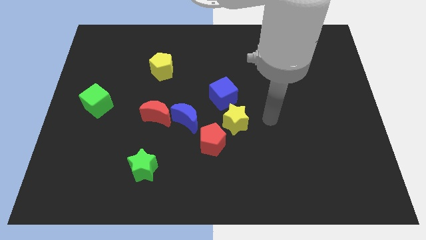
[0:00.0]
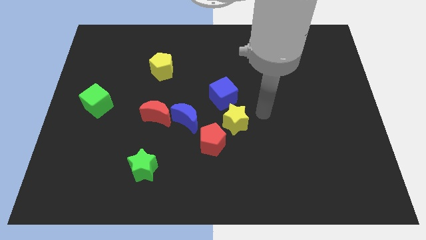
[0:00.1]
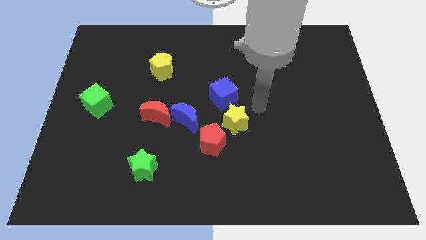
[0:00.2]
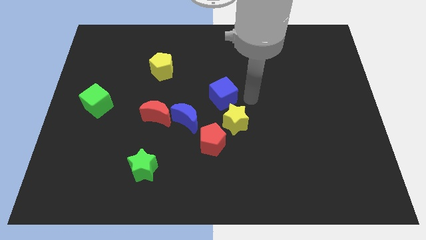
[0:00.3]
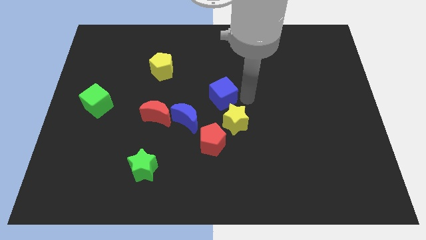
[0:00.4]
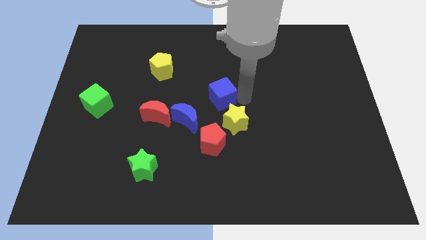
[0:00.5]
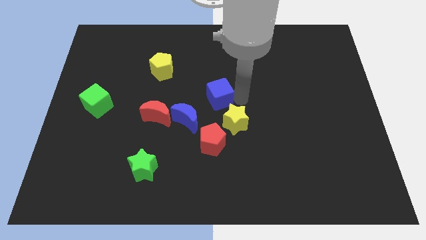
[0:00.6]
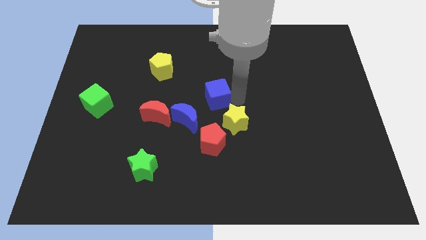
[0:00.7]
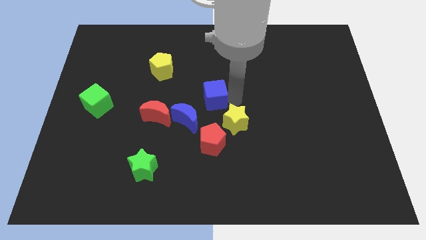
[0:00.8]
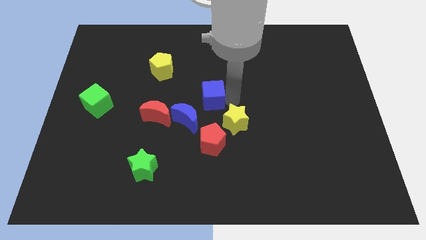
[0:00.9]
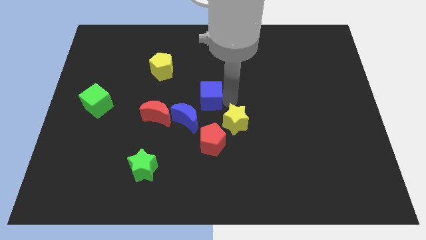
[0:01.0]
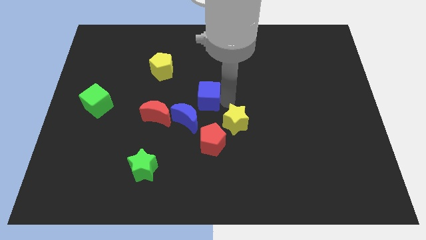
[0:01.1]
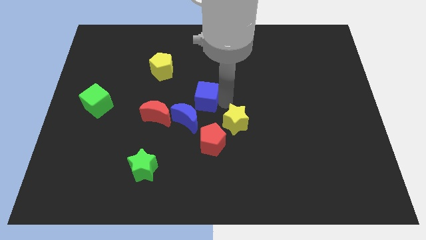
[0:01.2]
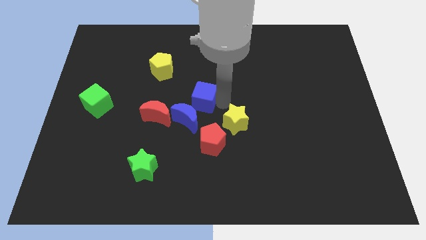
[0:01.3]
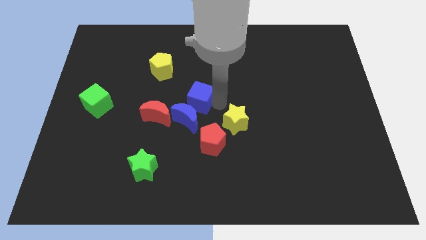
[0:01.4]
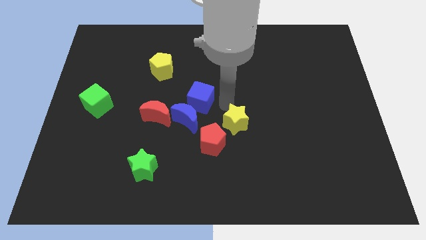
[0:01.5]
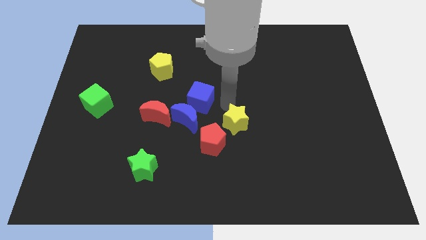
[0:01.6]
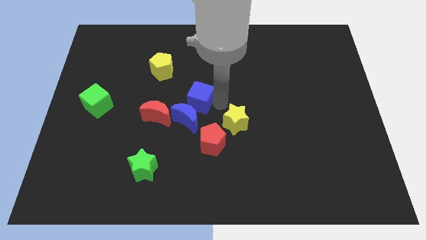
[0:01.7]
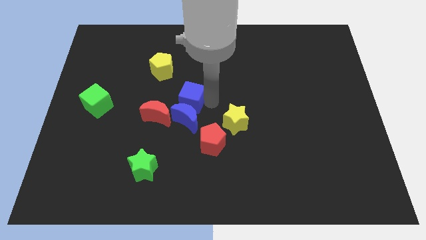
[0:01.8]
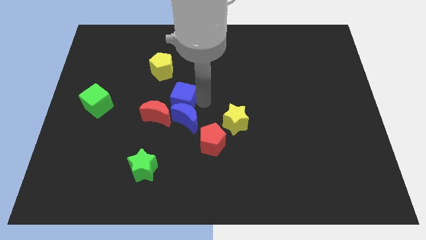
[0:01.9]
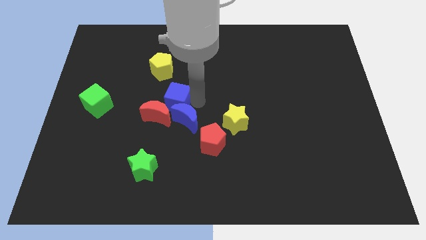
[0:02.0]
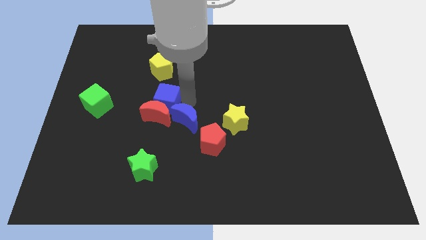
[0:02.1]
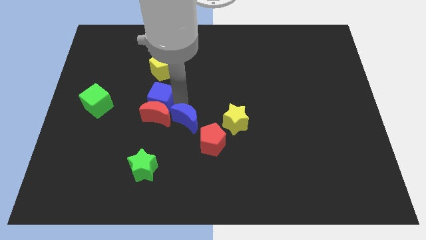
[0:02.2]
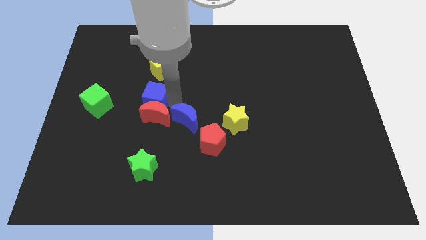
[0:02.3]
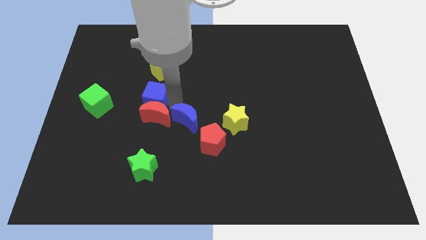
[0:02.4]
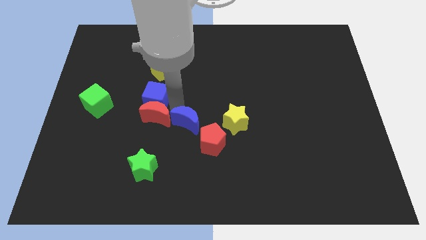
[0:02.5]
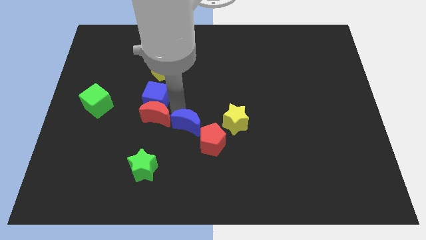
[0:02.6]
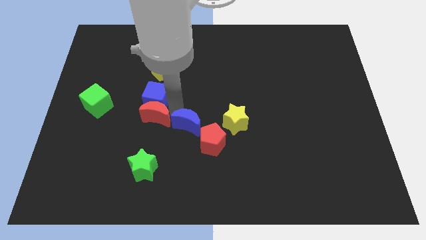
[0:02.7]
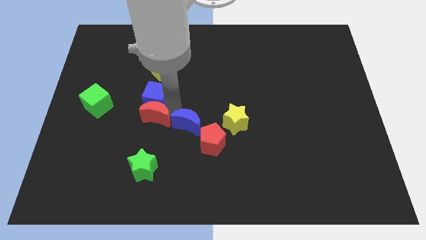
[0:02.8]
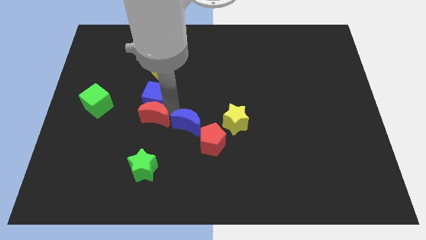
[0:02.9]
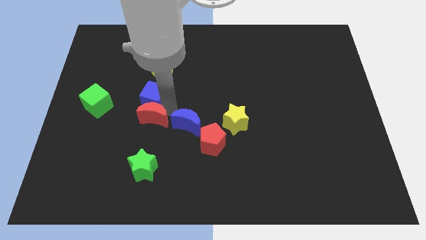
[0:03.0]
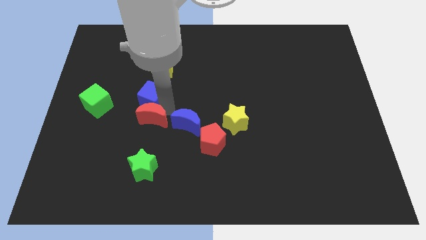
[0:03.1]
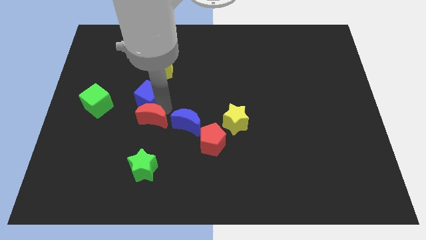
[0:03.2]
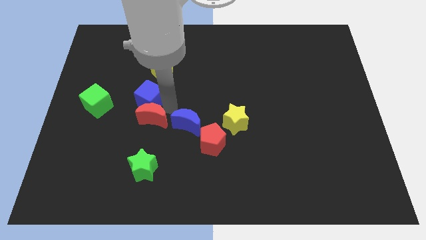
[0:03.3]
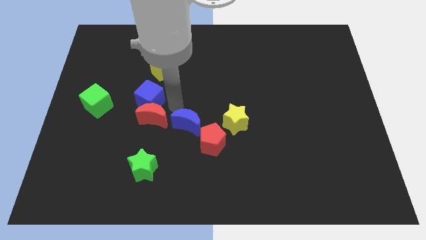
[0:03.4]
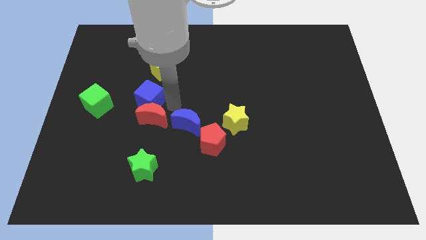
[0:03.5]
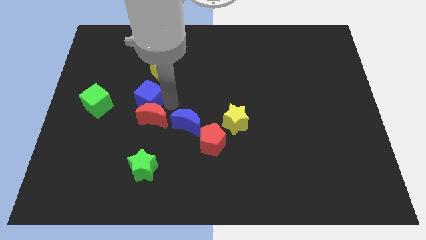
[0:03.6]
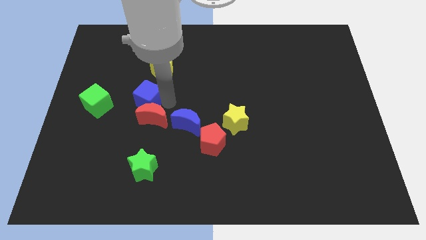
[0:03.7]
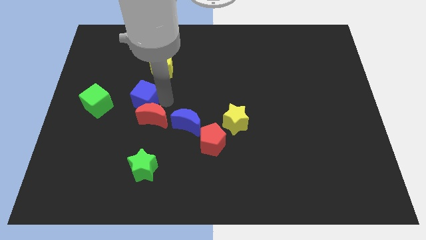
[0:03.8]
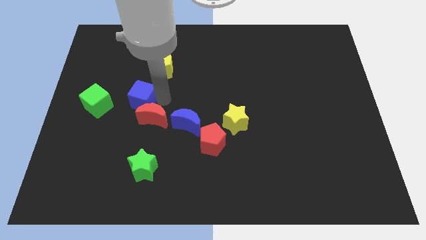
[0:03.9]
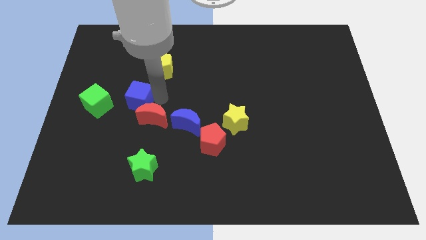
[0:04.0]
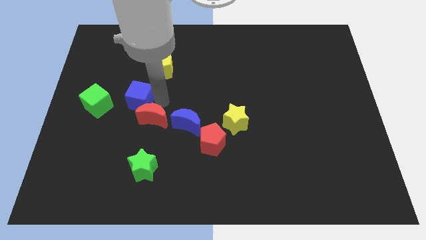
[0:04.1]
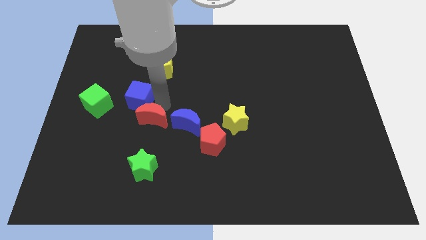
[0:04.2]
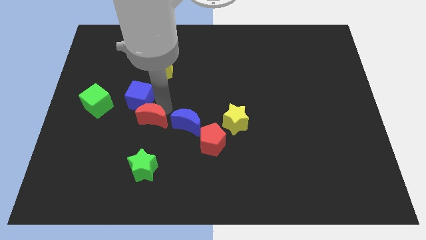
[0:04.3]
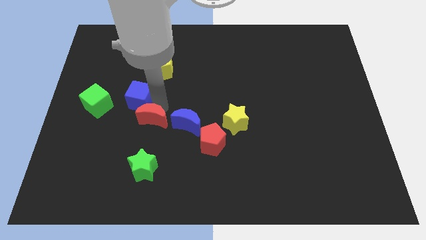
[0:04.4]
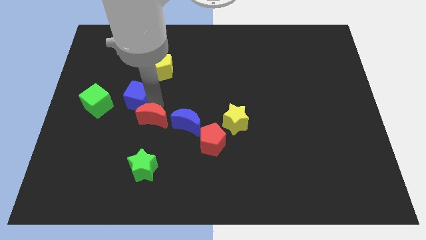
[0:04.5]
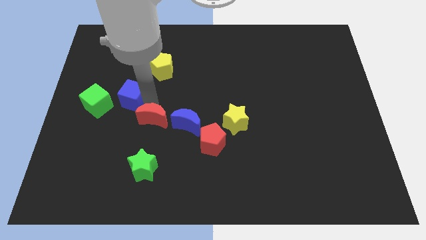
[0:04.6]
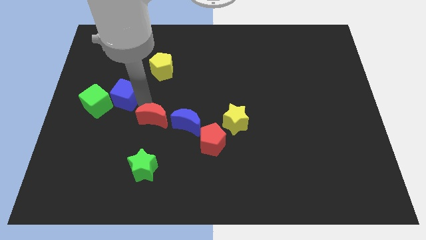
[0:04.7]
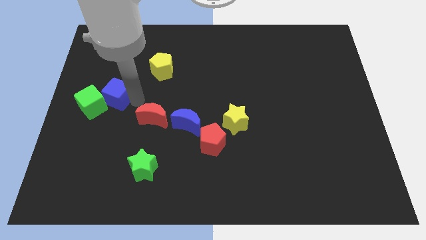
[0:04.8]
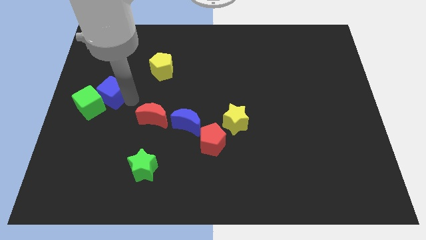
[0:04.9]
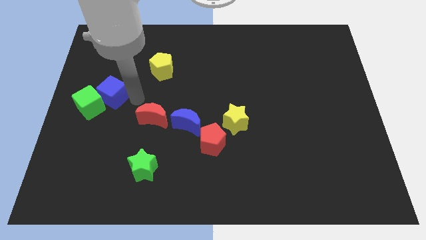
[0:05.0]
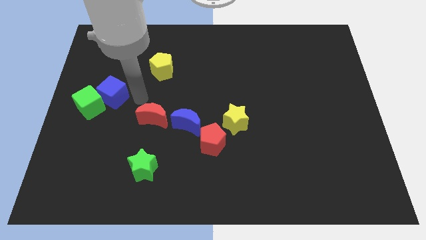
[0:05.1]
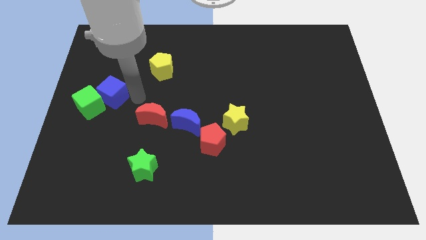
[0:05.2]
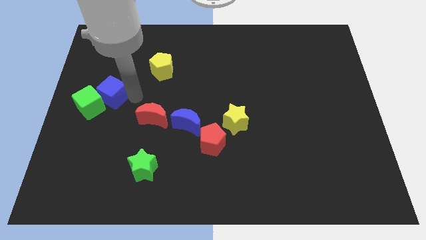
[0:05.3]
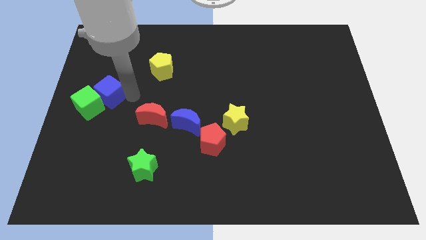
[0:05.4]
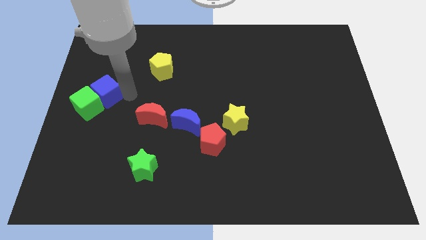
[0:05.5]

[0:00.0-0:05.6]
move the blue cube to the center left

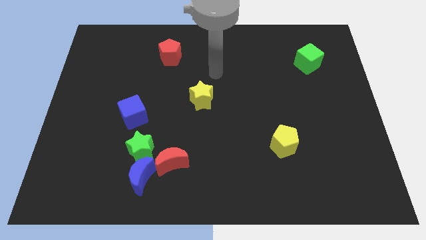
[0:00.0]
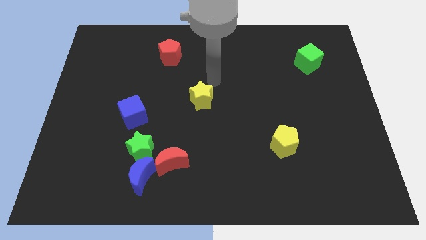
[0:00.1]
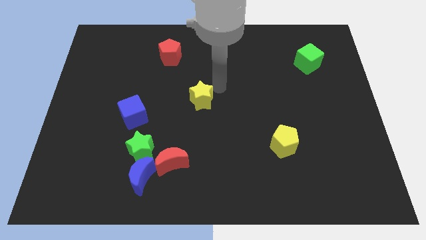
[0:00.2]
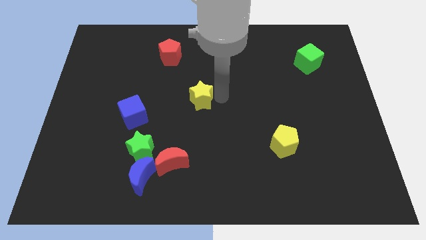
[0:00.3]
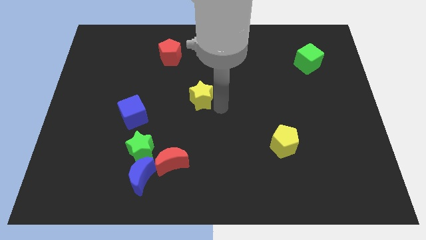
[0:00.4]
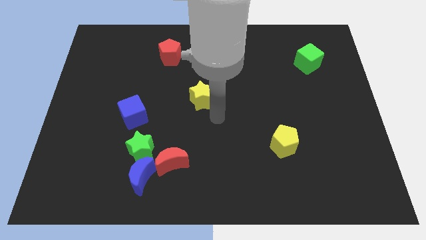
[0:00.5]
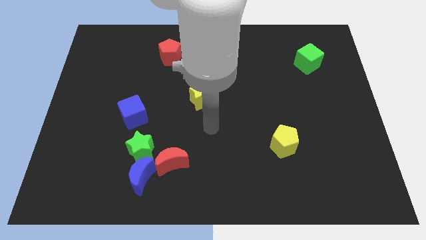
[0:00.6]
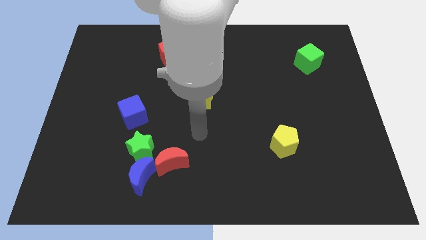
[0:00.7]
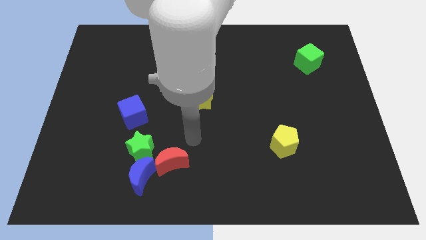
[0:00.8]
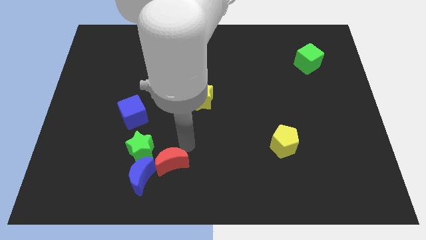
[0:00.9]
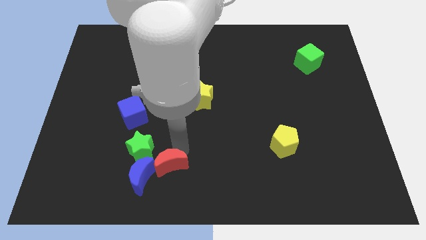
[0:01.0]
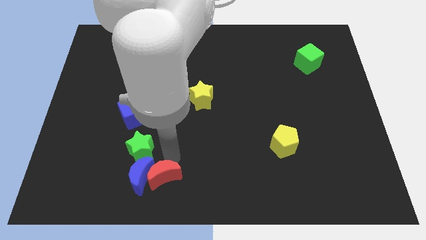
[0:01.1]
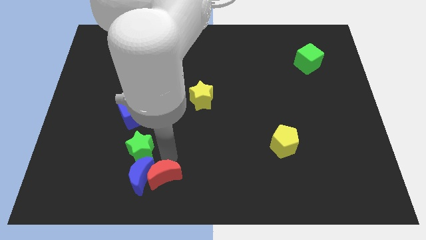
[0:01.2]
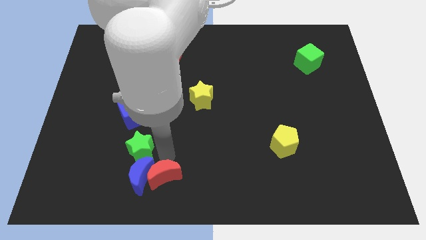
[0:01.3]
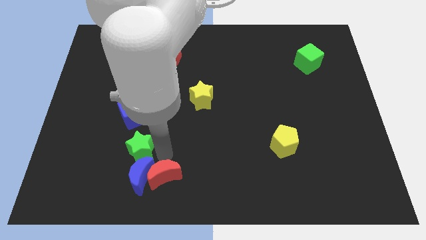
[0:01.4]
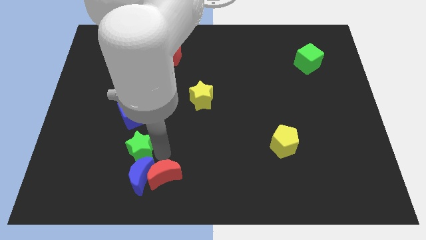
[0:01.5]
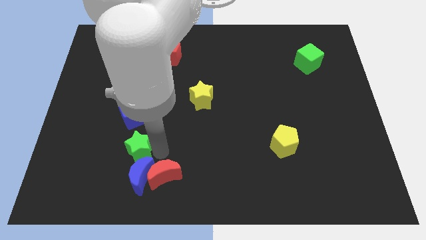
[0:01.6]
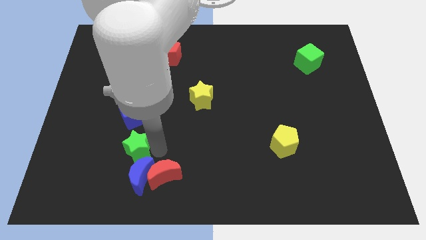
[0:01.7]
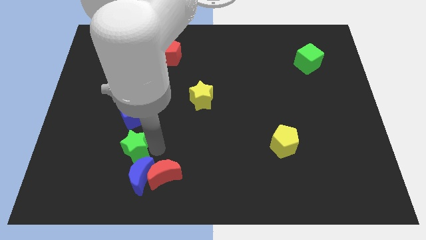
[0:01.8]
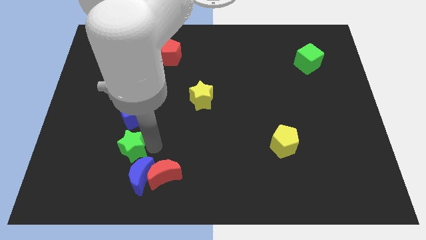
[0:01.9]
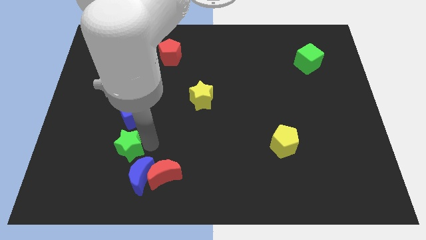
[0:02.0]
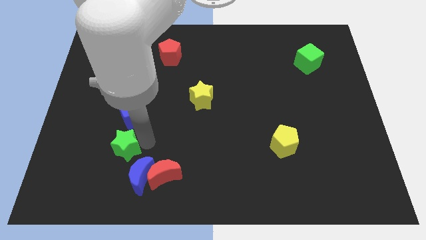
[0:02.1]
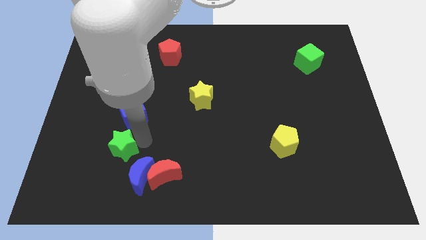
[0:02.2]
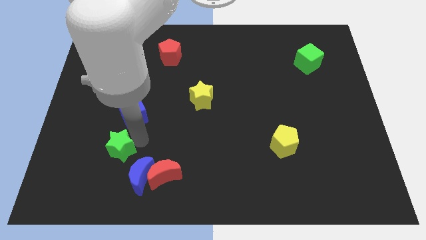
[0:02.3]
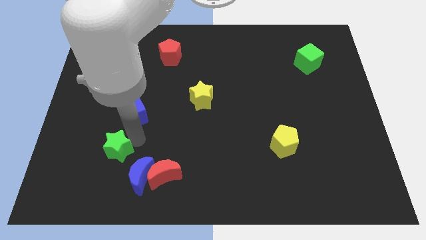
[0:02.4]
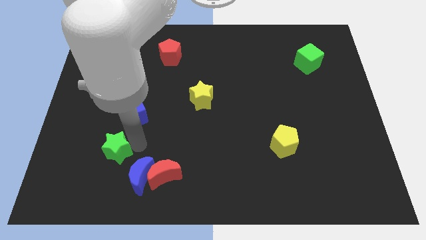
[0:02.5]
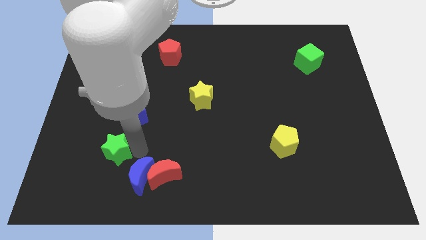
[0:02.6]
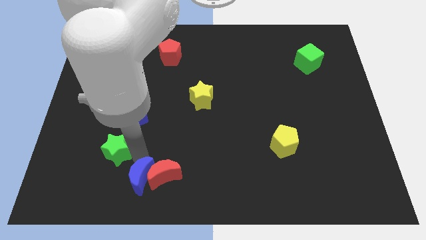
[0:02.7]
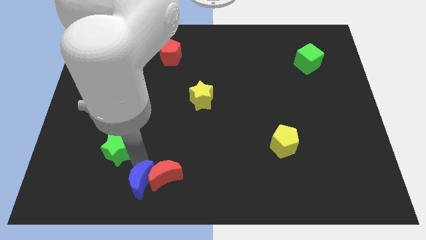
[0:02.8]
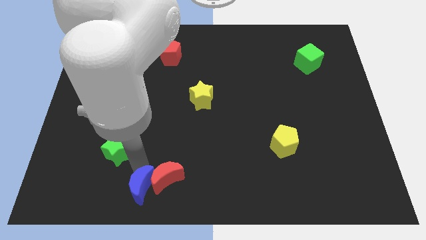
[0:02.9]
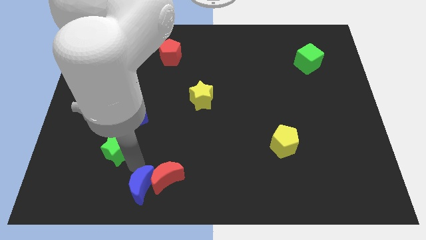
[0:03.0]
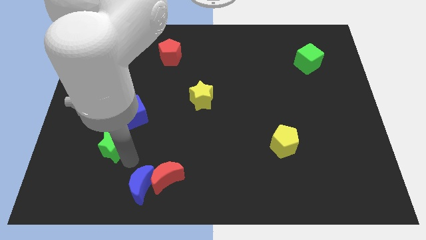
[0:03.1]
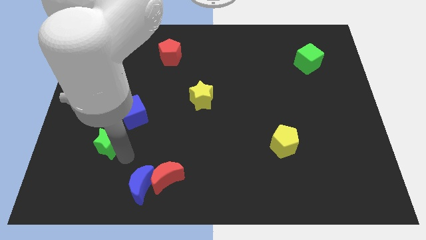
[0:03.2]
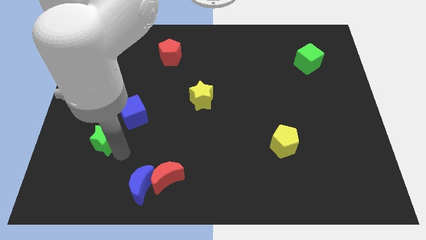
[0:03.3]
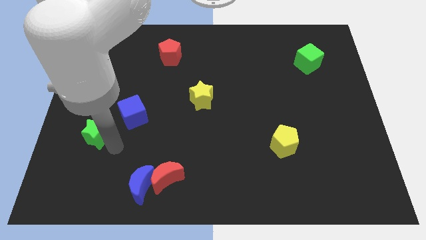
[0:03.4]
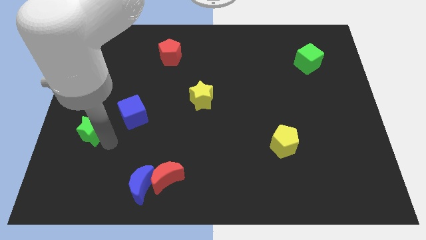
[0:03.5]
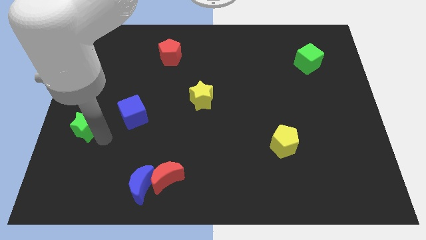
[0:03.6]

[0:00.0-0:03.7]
move the green star to the left side of the board
